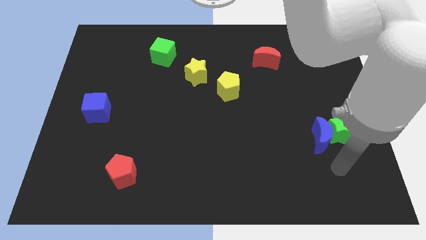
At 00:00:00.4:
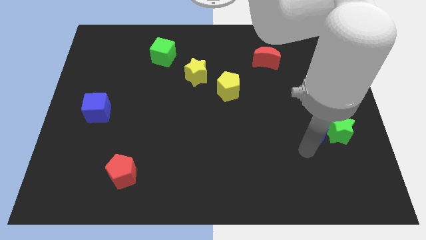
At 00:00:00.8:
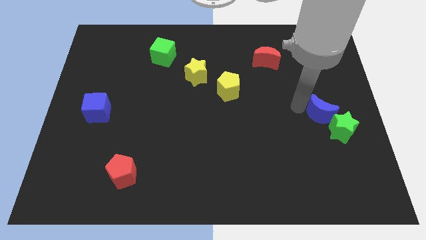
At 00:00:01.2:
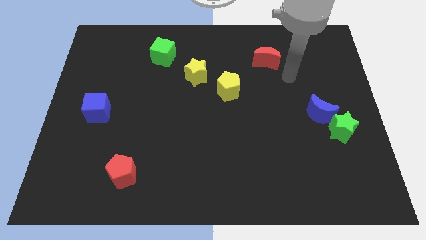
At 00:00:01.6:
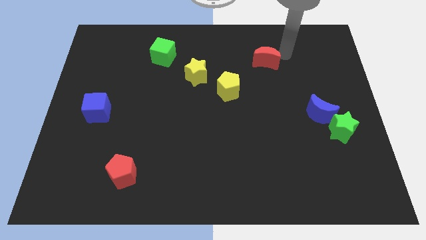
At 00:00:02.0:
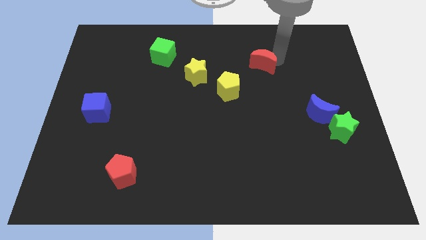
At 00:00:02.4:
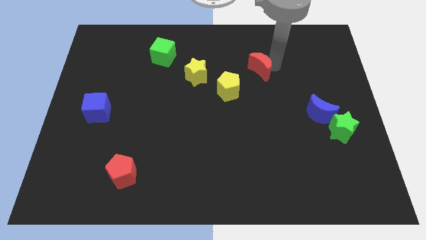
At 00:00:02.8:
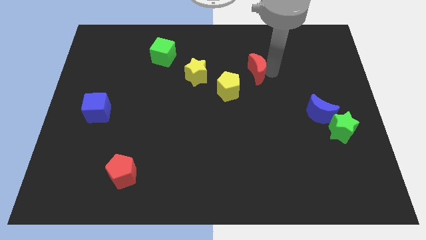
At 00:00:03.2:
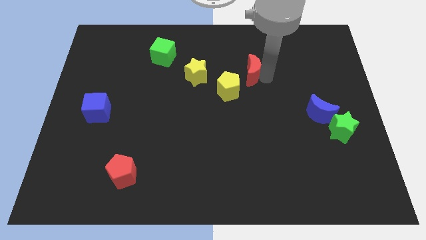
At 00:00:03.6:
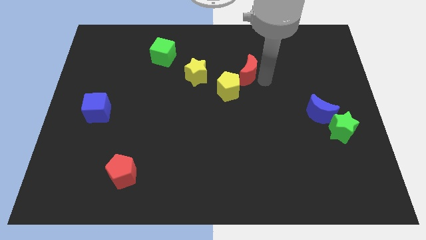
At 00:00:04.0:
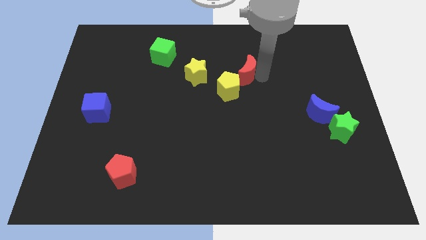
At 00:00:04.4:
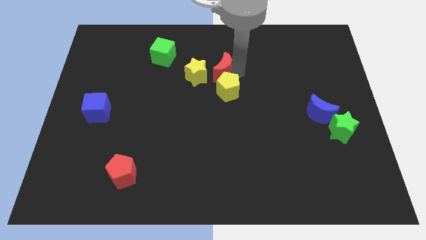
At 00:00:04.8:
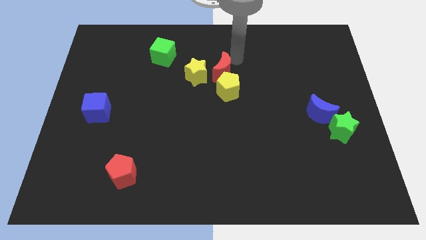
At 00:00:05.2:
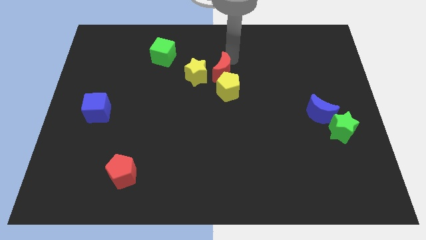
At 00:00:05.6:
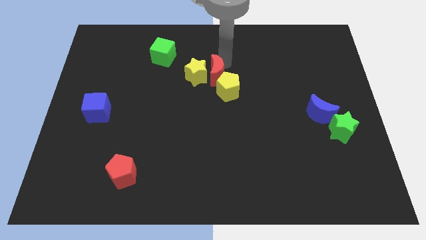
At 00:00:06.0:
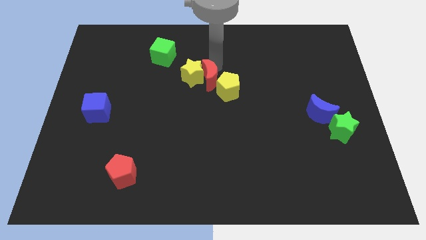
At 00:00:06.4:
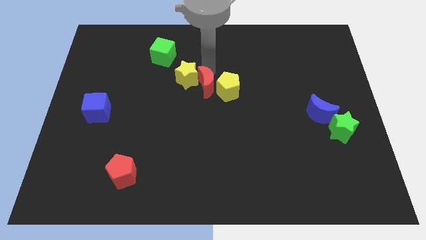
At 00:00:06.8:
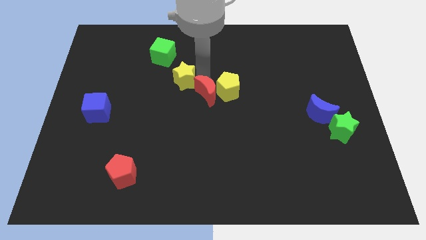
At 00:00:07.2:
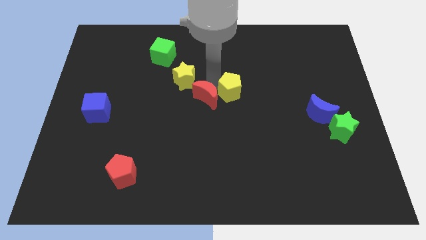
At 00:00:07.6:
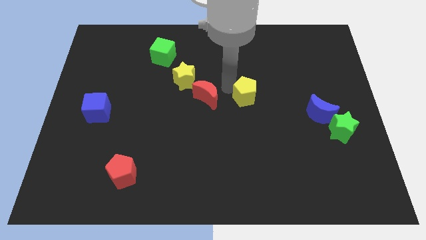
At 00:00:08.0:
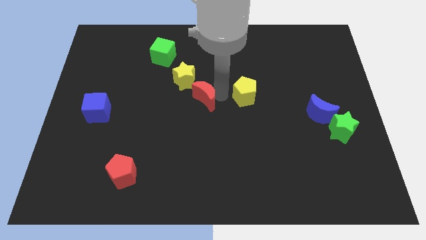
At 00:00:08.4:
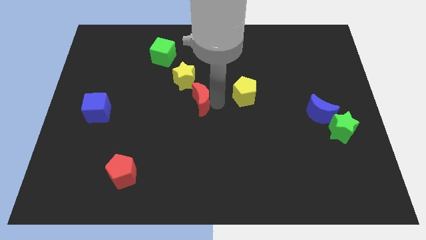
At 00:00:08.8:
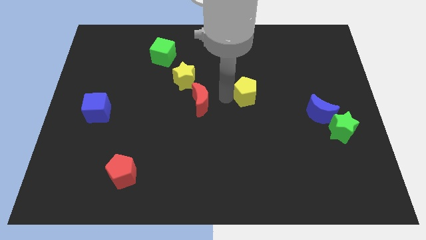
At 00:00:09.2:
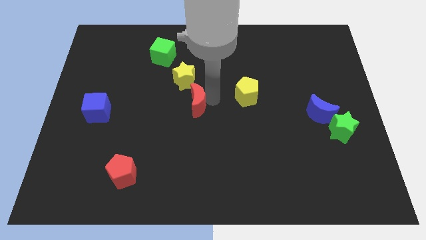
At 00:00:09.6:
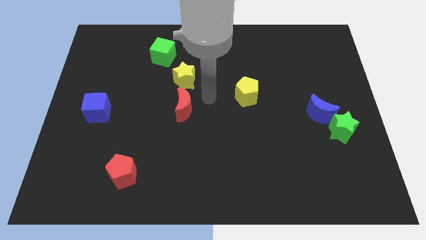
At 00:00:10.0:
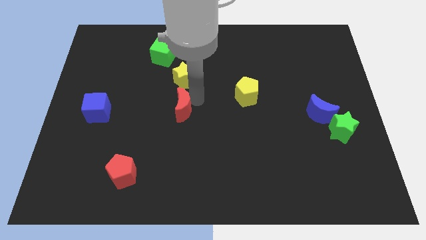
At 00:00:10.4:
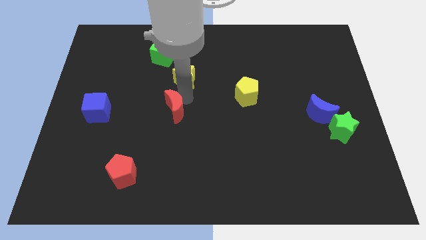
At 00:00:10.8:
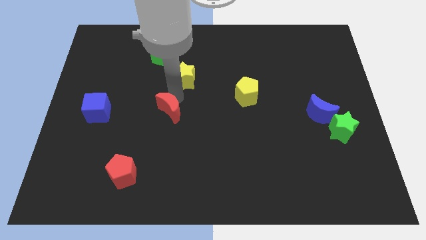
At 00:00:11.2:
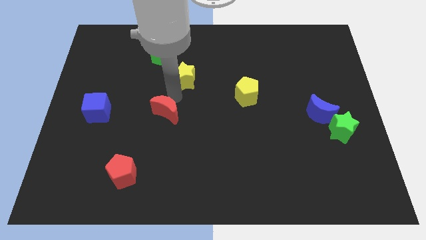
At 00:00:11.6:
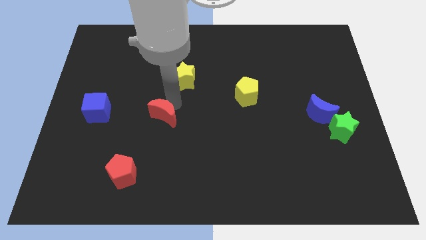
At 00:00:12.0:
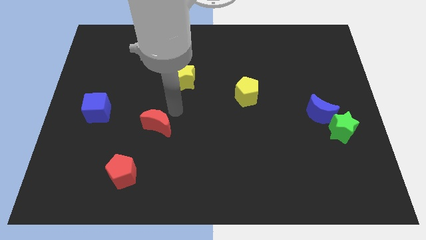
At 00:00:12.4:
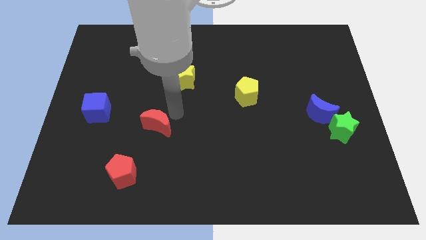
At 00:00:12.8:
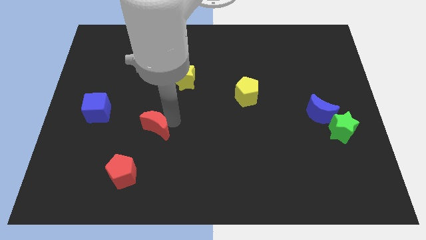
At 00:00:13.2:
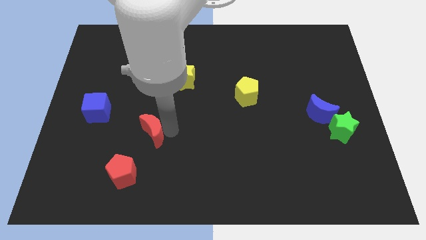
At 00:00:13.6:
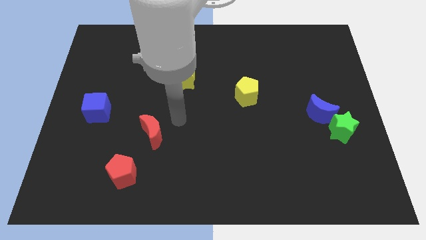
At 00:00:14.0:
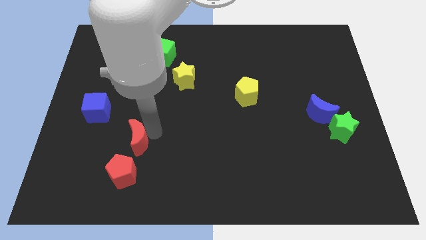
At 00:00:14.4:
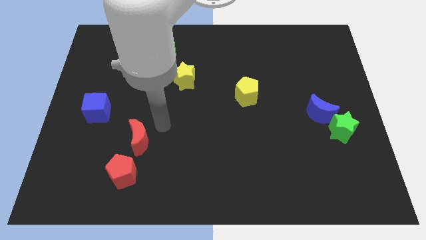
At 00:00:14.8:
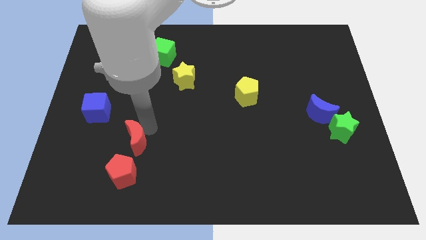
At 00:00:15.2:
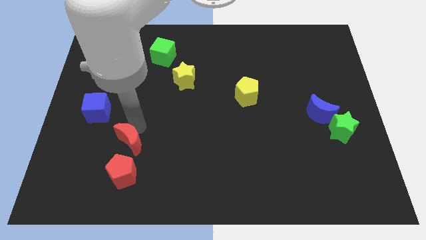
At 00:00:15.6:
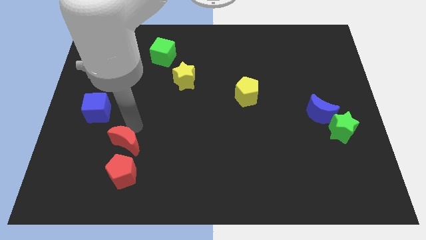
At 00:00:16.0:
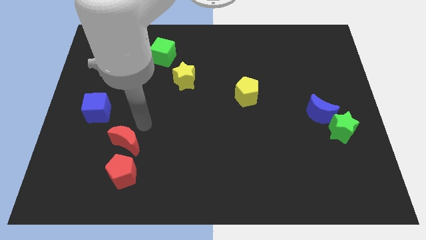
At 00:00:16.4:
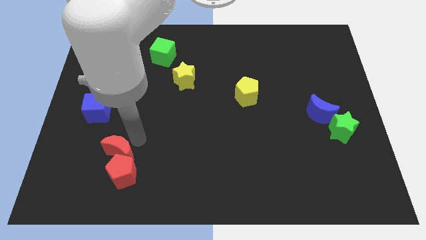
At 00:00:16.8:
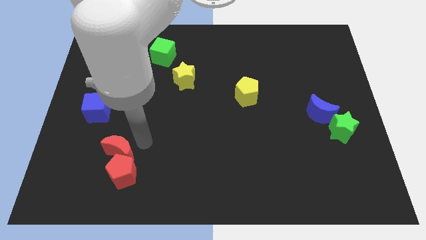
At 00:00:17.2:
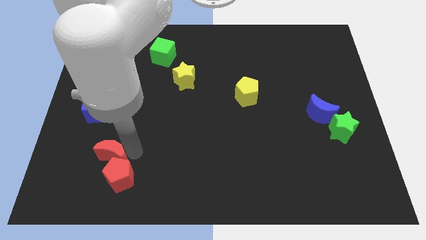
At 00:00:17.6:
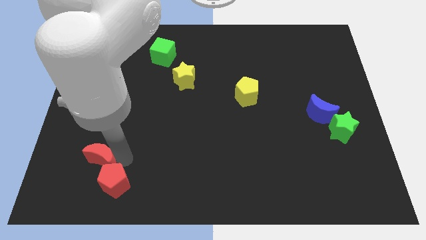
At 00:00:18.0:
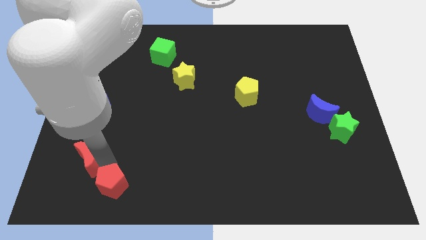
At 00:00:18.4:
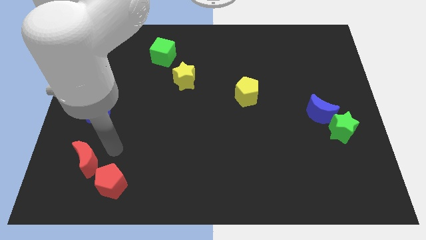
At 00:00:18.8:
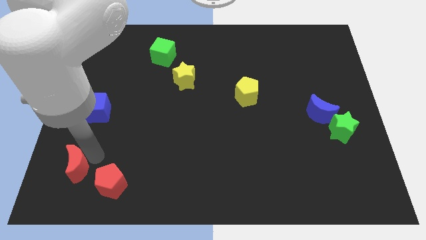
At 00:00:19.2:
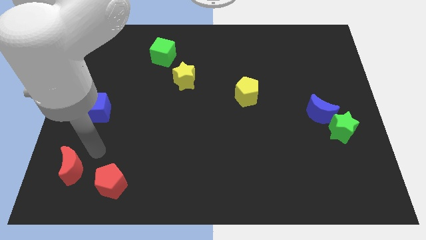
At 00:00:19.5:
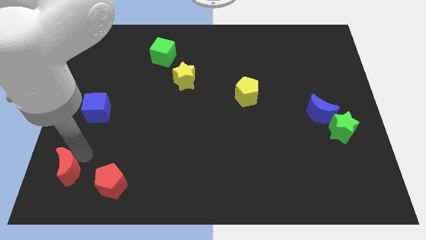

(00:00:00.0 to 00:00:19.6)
put the red moon to the bottom left of the board

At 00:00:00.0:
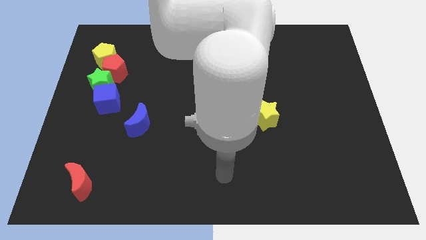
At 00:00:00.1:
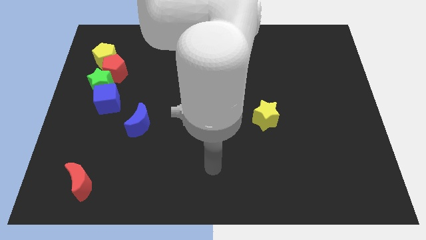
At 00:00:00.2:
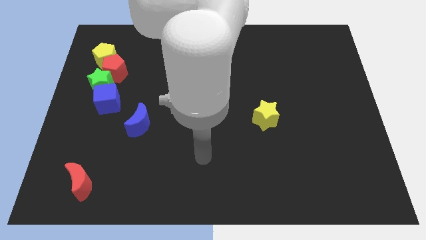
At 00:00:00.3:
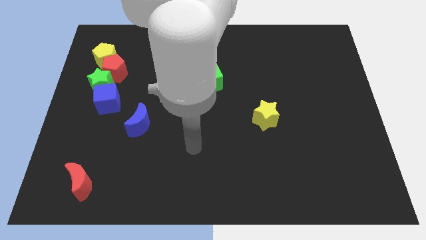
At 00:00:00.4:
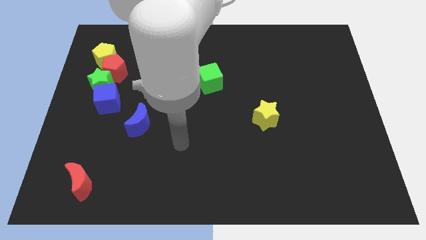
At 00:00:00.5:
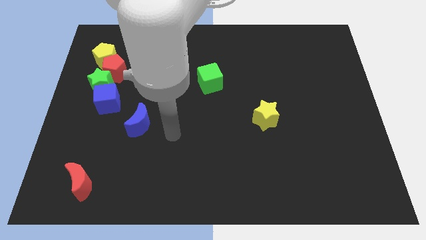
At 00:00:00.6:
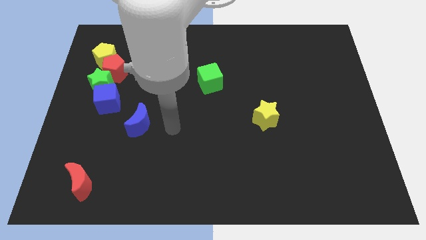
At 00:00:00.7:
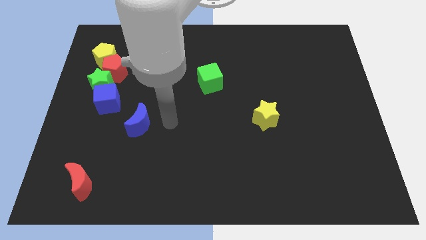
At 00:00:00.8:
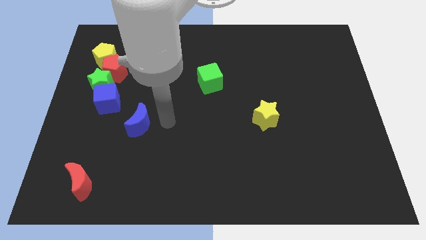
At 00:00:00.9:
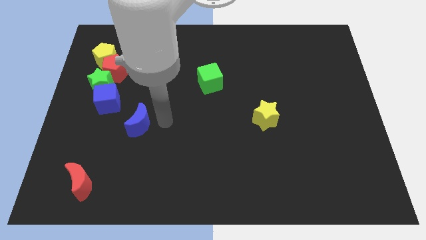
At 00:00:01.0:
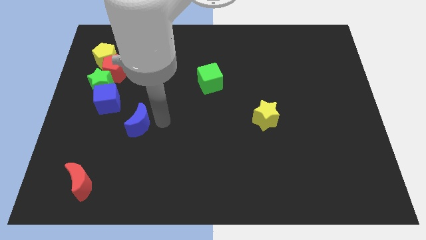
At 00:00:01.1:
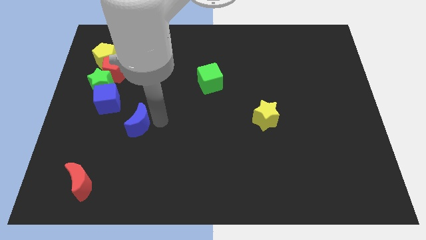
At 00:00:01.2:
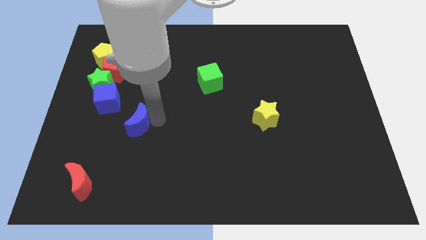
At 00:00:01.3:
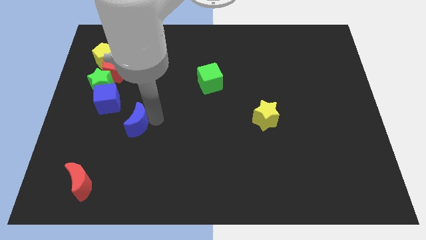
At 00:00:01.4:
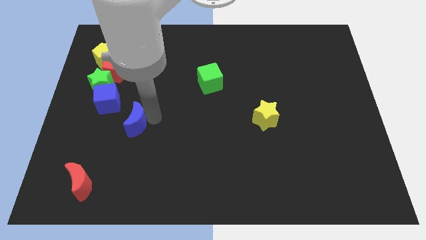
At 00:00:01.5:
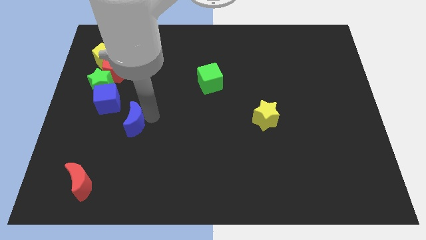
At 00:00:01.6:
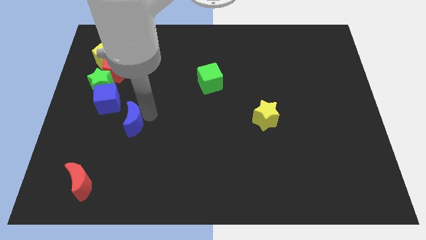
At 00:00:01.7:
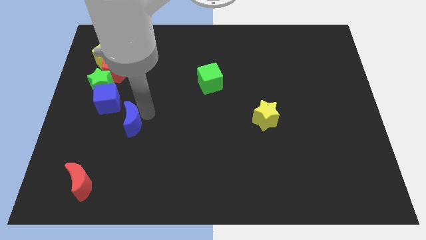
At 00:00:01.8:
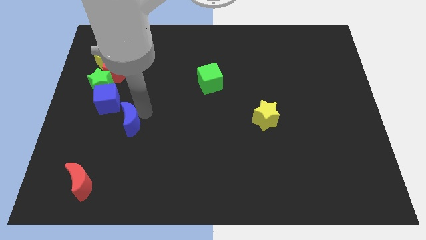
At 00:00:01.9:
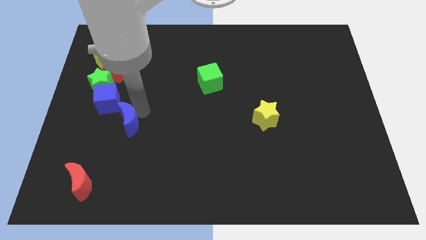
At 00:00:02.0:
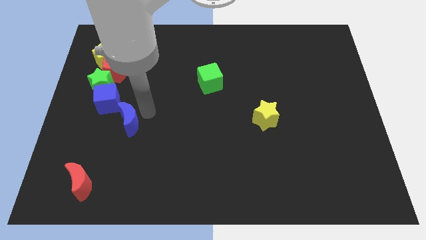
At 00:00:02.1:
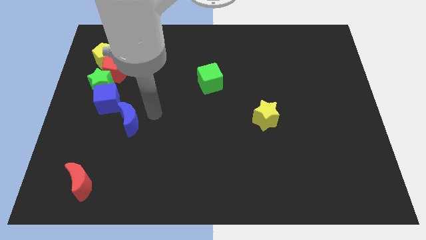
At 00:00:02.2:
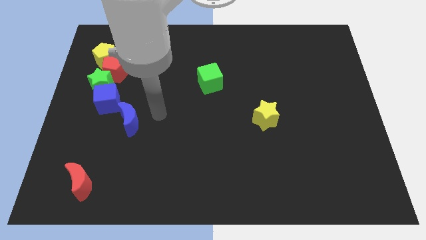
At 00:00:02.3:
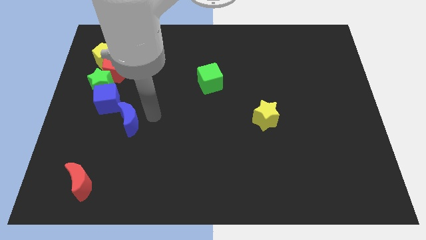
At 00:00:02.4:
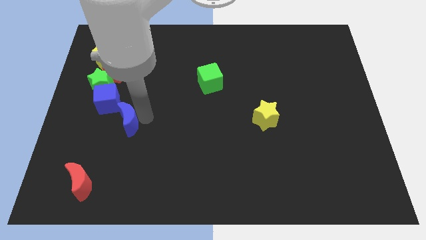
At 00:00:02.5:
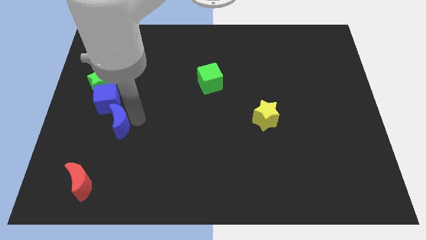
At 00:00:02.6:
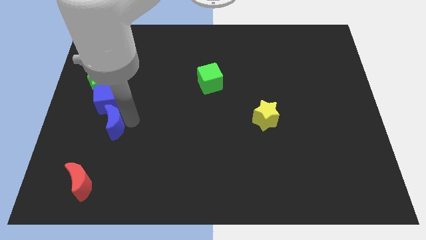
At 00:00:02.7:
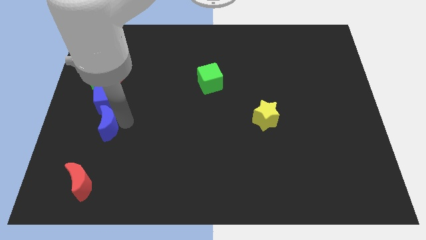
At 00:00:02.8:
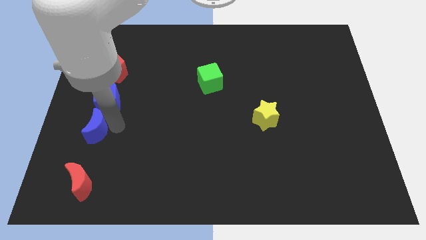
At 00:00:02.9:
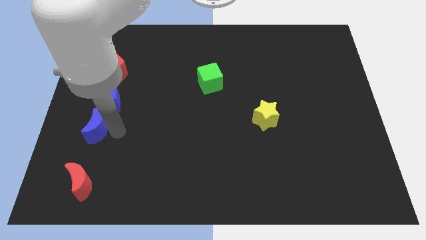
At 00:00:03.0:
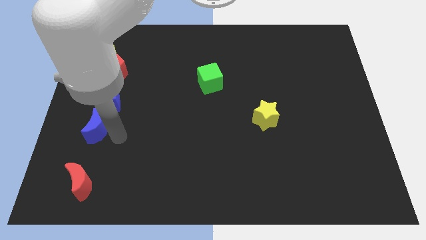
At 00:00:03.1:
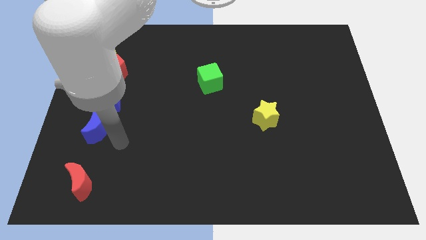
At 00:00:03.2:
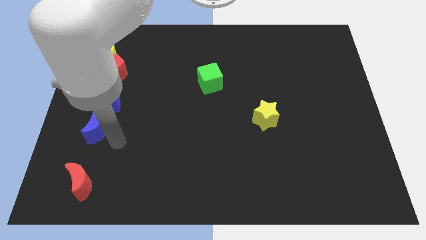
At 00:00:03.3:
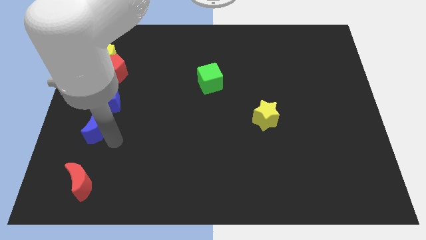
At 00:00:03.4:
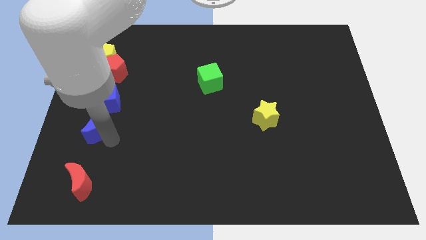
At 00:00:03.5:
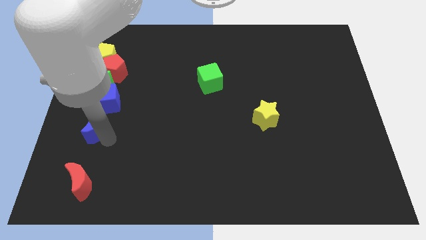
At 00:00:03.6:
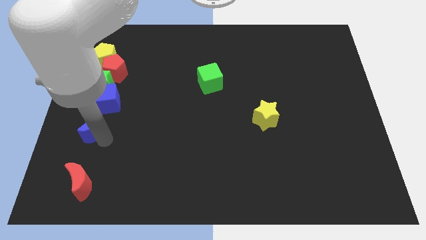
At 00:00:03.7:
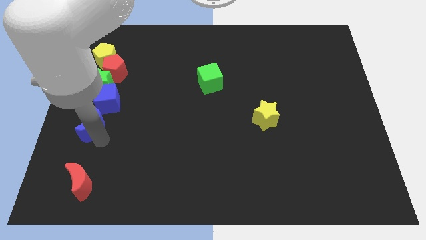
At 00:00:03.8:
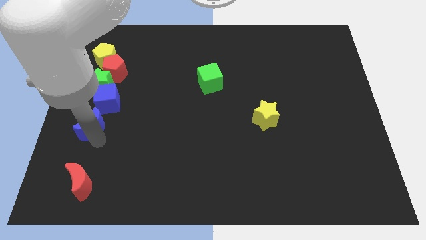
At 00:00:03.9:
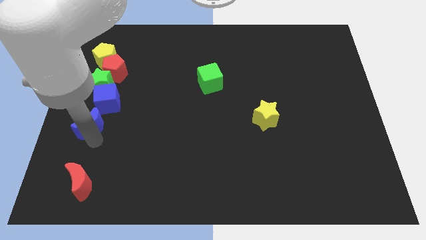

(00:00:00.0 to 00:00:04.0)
move the blue moon to the left side
